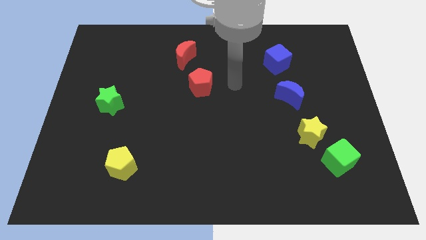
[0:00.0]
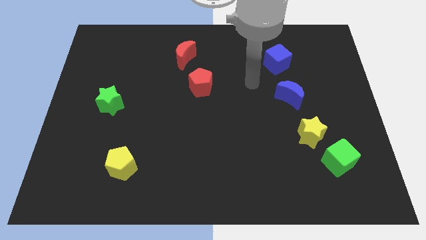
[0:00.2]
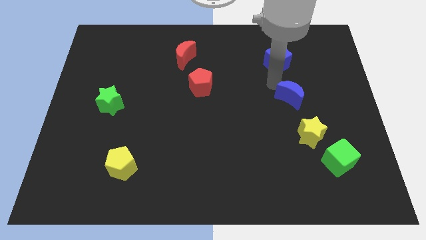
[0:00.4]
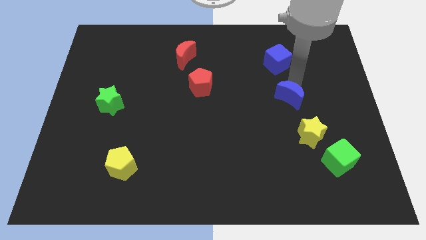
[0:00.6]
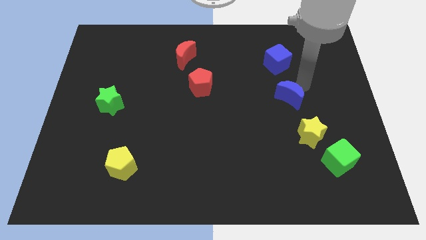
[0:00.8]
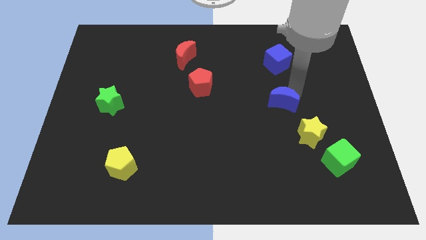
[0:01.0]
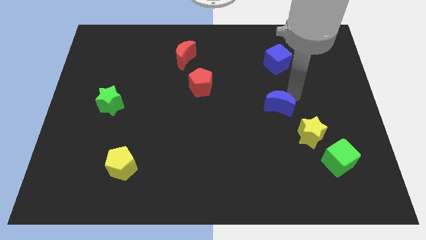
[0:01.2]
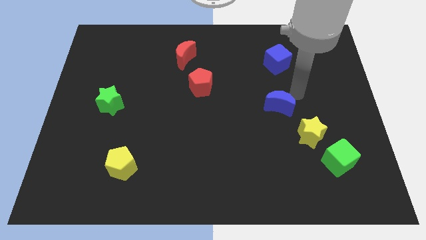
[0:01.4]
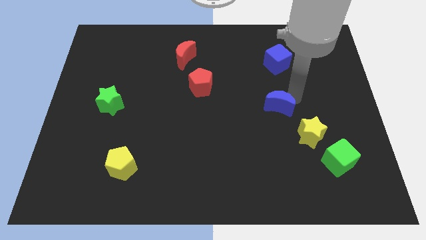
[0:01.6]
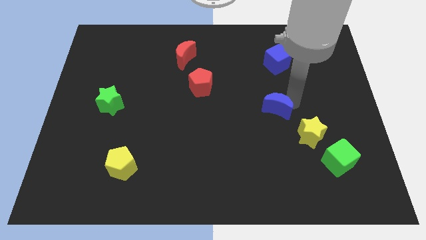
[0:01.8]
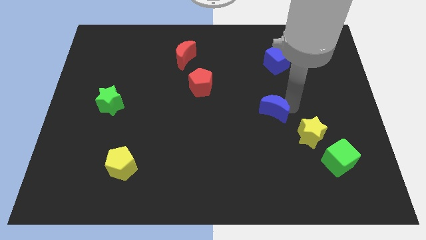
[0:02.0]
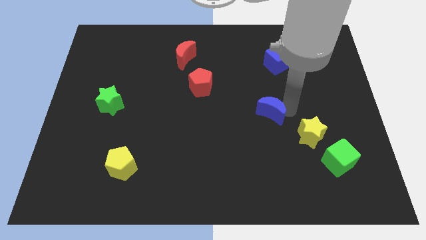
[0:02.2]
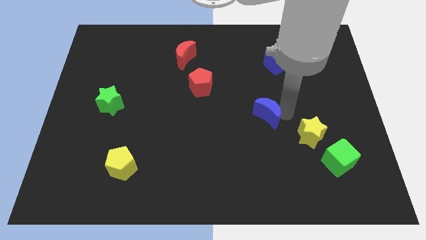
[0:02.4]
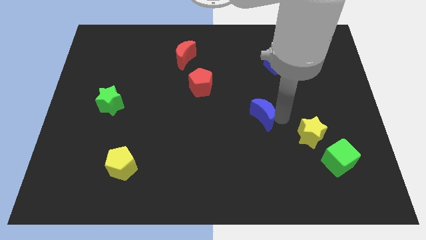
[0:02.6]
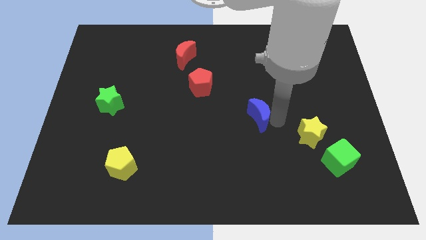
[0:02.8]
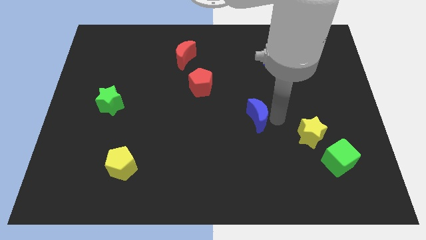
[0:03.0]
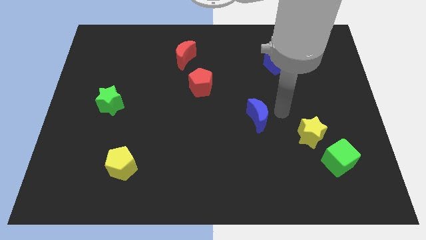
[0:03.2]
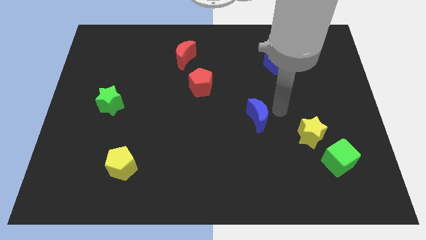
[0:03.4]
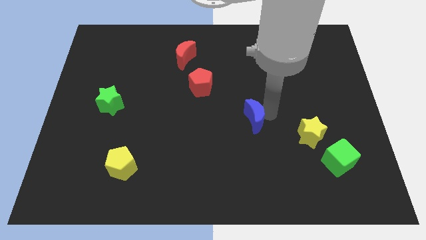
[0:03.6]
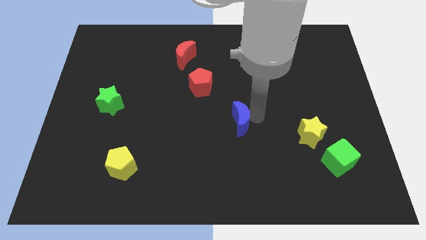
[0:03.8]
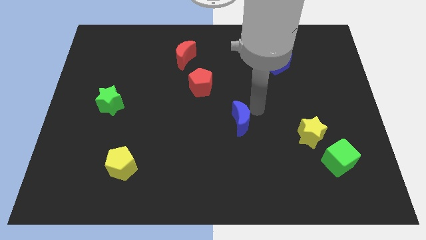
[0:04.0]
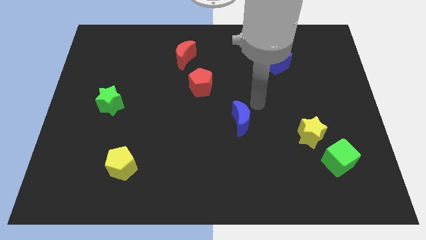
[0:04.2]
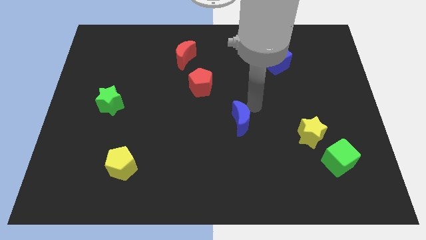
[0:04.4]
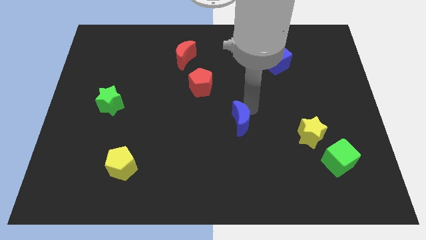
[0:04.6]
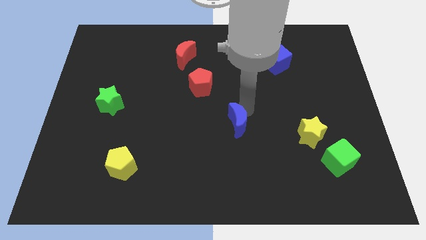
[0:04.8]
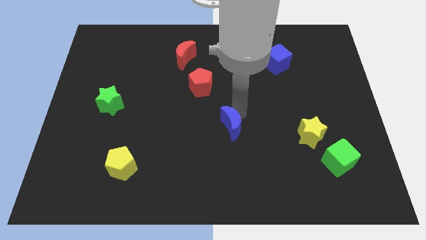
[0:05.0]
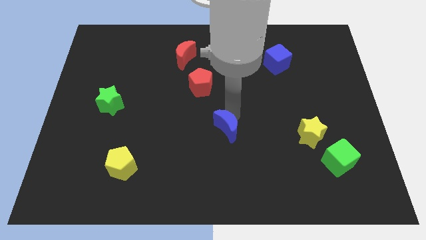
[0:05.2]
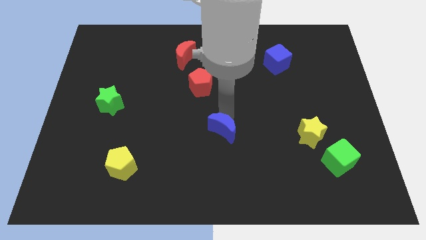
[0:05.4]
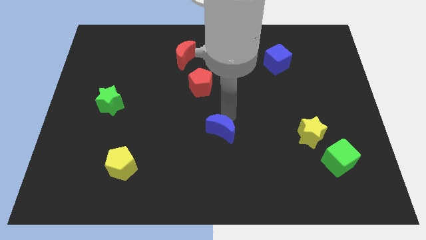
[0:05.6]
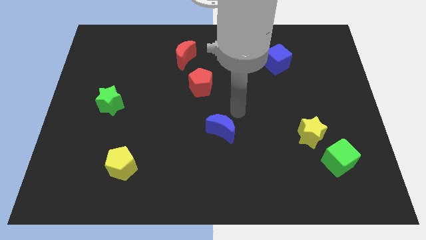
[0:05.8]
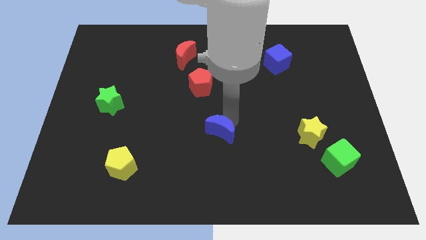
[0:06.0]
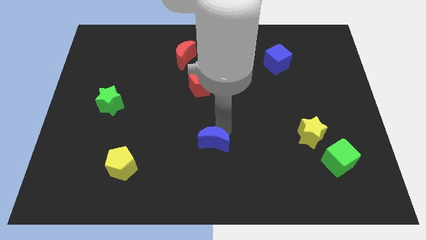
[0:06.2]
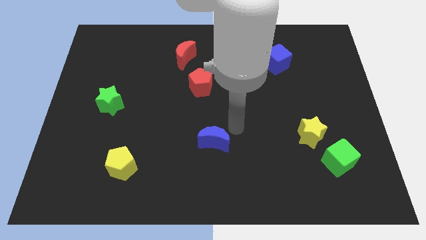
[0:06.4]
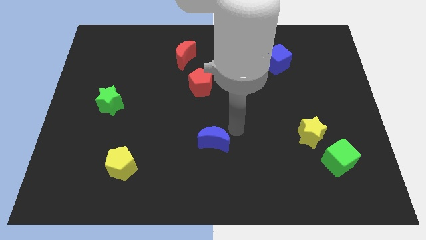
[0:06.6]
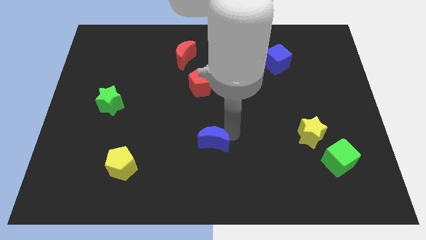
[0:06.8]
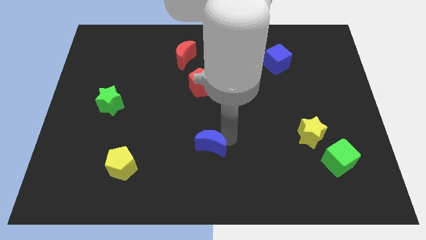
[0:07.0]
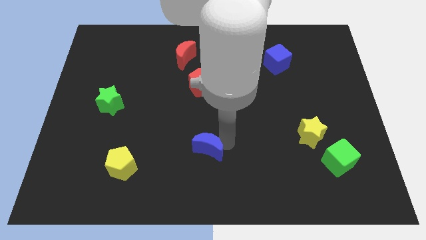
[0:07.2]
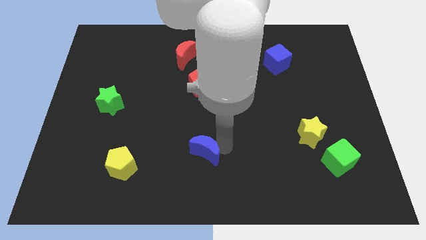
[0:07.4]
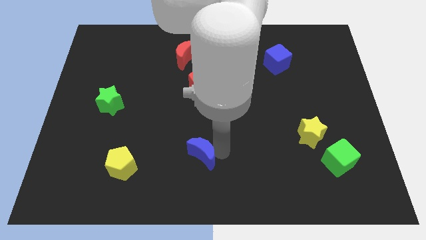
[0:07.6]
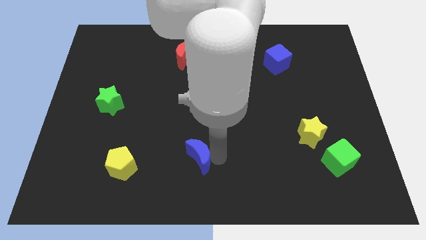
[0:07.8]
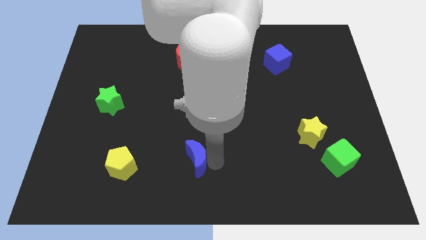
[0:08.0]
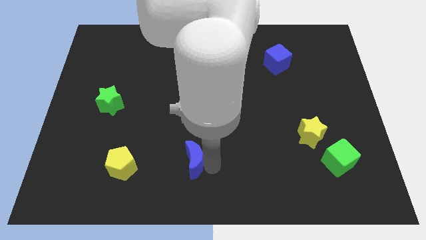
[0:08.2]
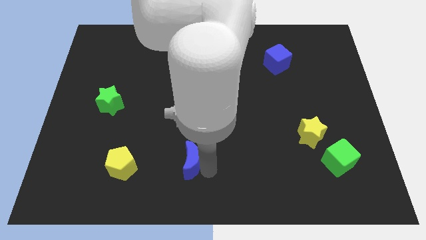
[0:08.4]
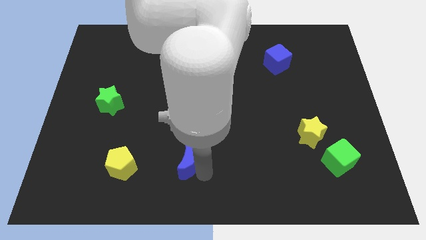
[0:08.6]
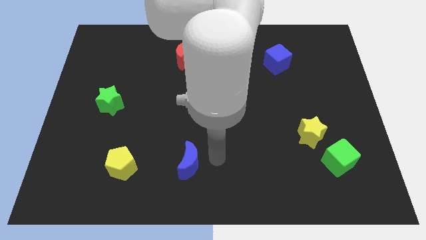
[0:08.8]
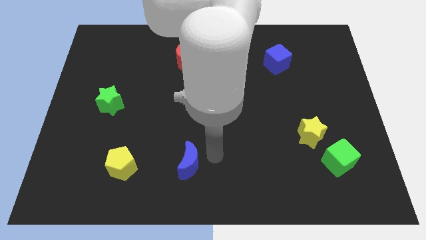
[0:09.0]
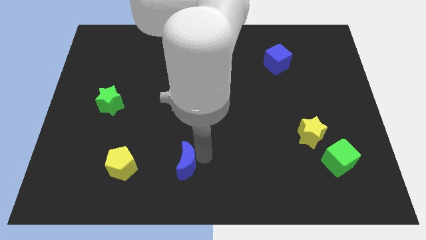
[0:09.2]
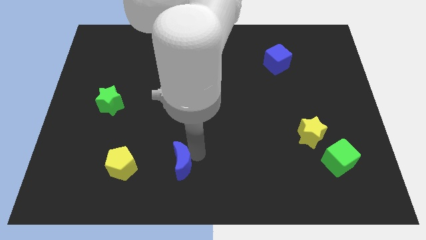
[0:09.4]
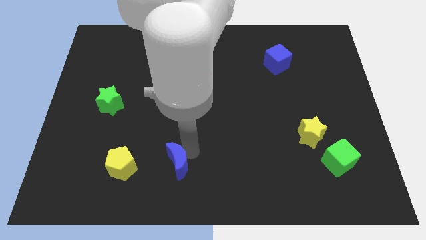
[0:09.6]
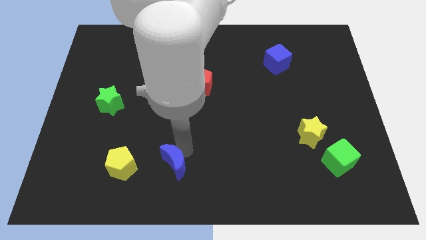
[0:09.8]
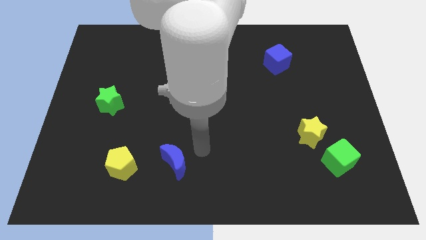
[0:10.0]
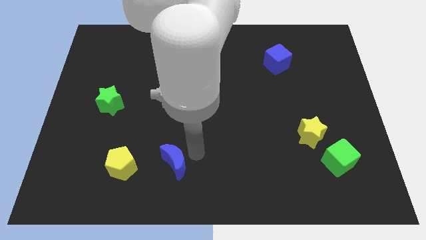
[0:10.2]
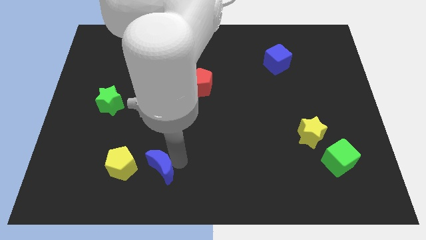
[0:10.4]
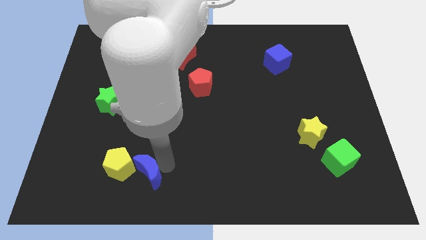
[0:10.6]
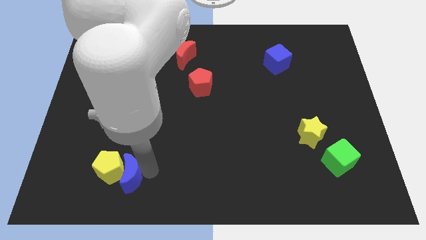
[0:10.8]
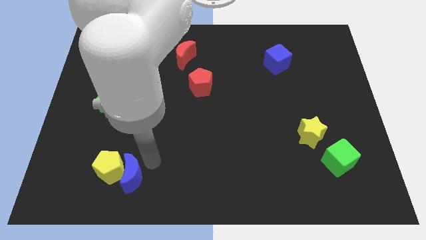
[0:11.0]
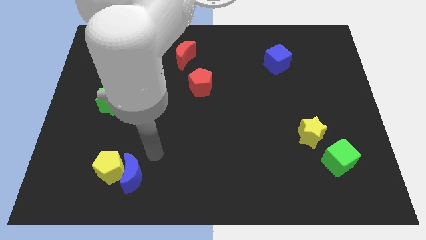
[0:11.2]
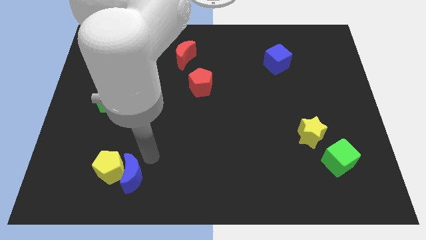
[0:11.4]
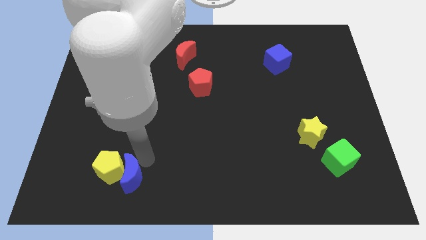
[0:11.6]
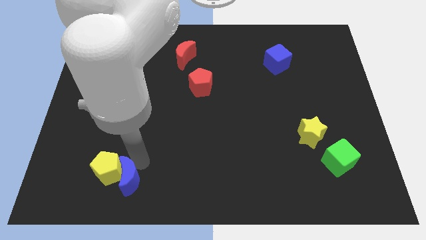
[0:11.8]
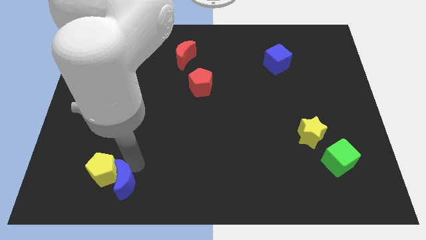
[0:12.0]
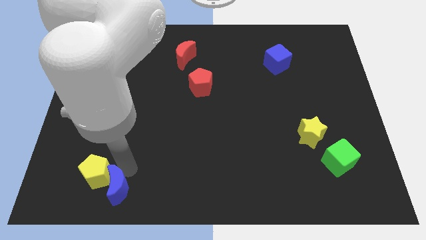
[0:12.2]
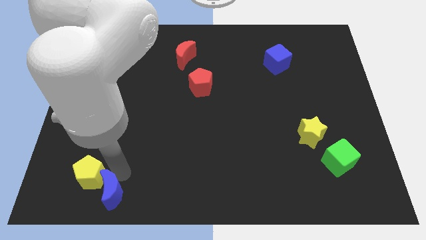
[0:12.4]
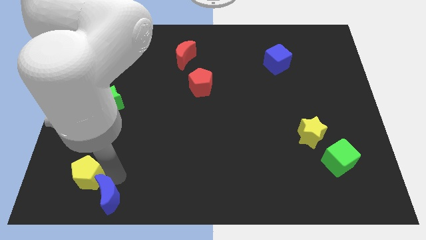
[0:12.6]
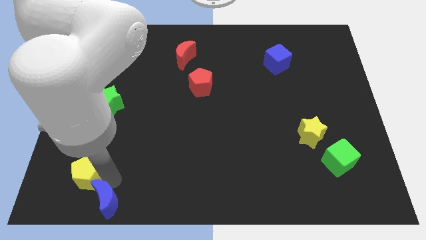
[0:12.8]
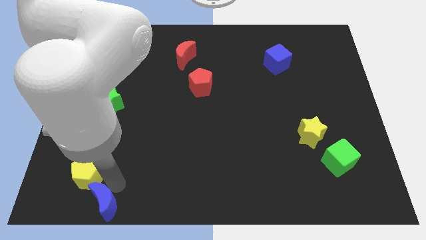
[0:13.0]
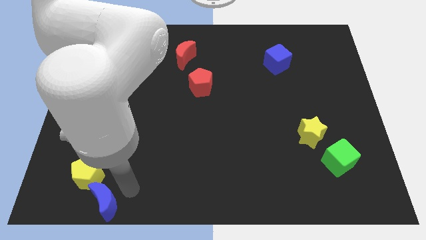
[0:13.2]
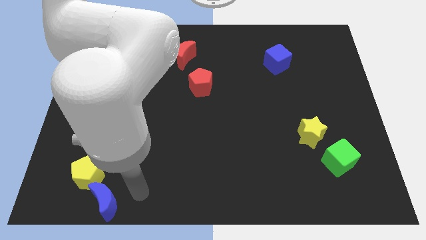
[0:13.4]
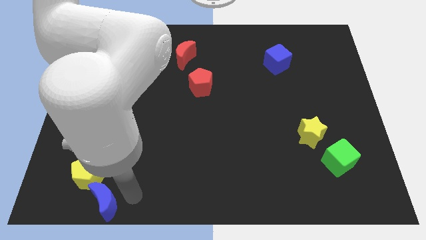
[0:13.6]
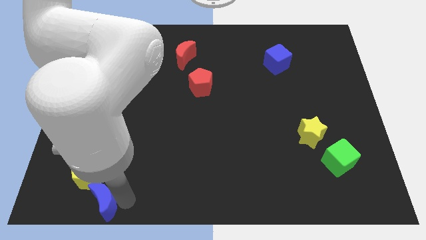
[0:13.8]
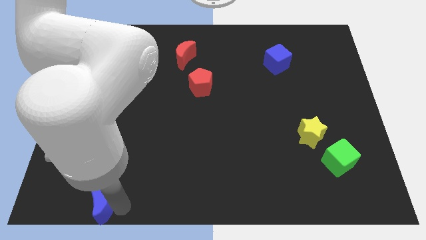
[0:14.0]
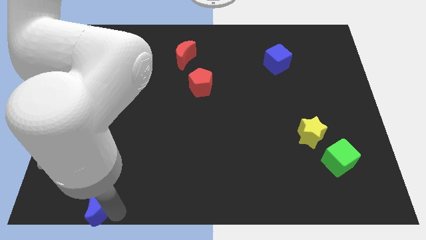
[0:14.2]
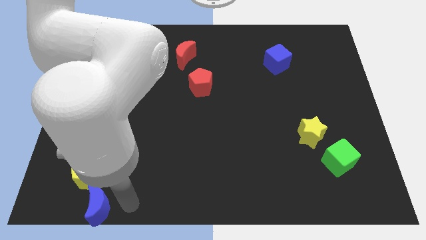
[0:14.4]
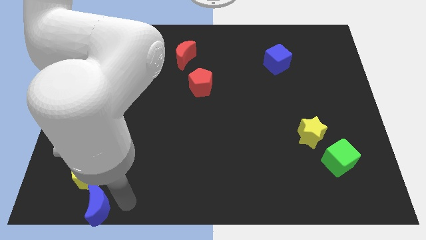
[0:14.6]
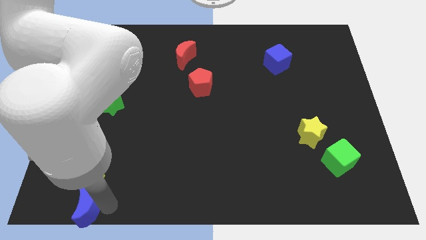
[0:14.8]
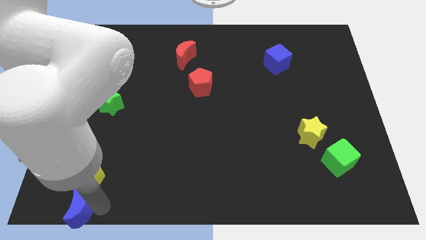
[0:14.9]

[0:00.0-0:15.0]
move the blue moon to the bottom left corner
